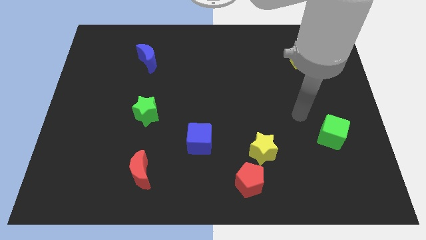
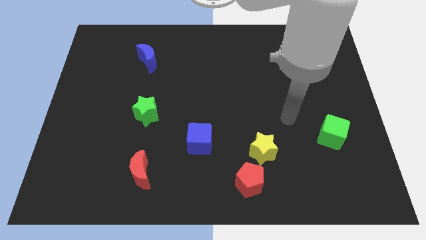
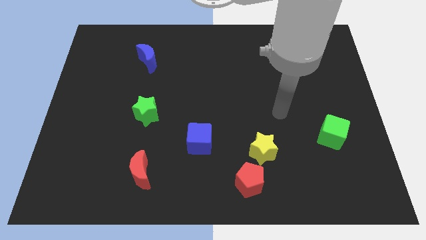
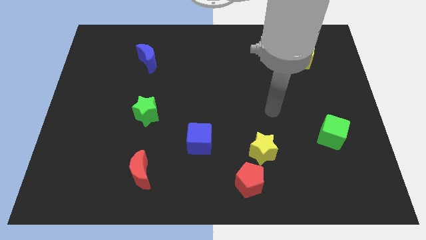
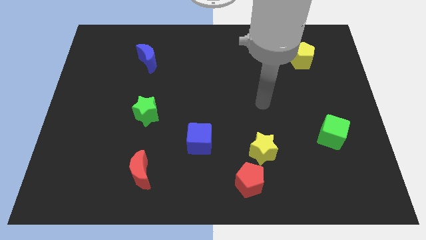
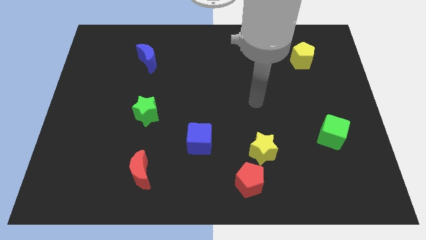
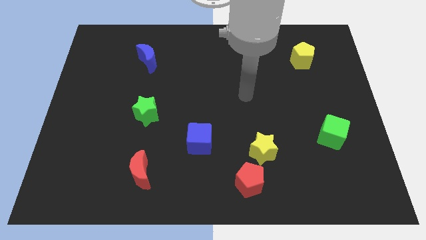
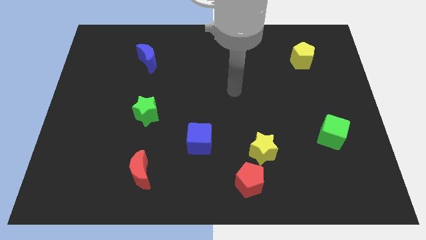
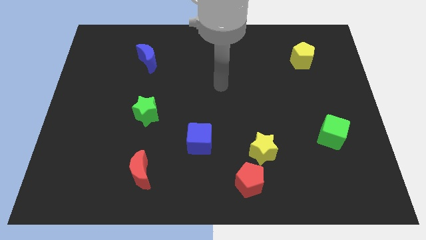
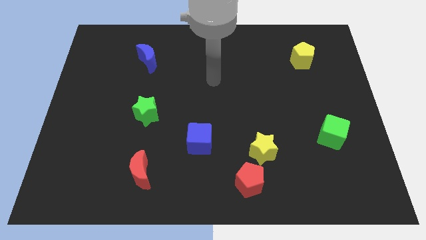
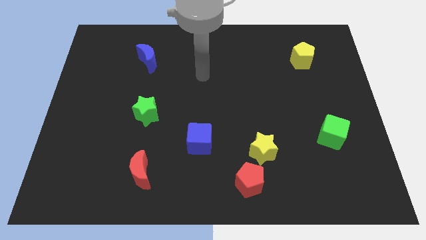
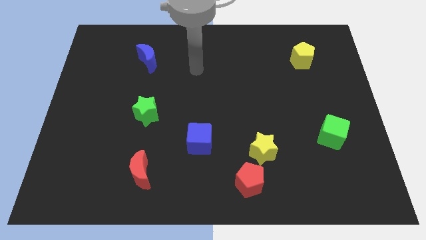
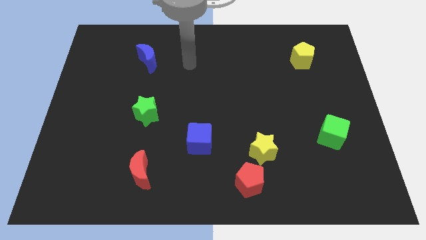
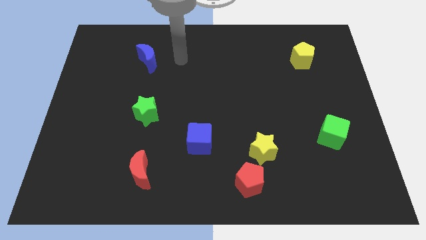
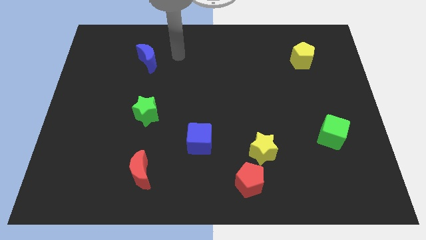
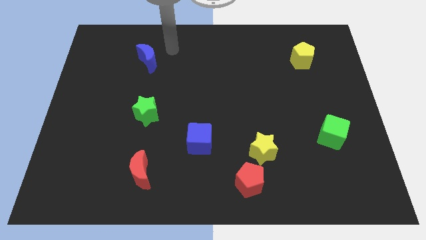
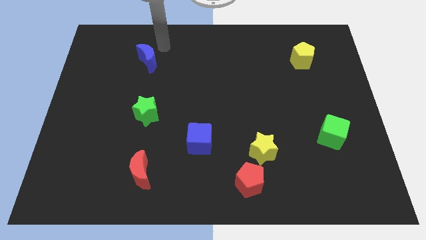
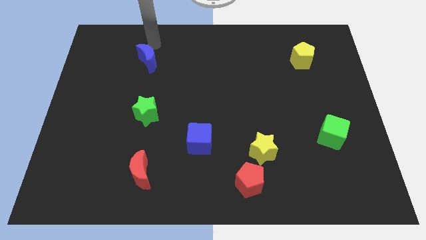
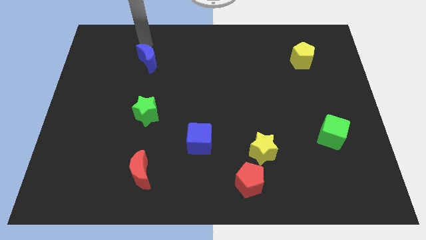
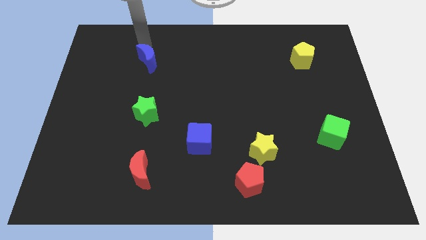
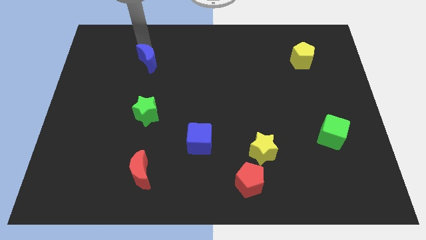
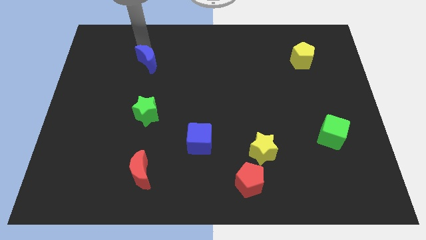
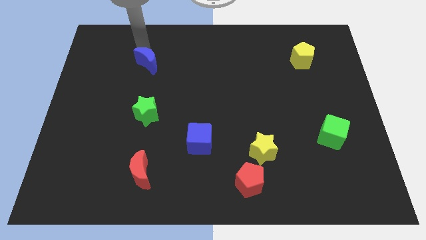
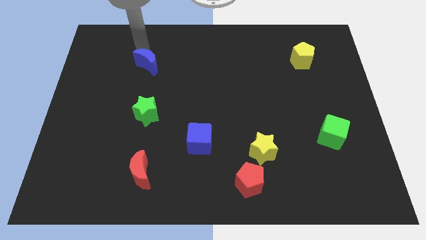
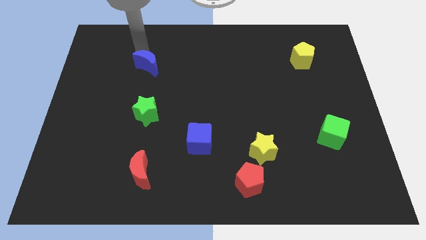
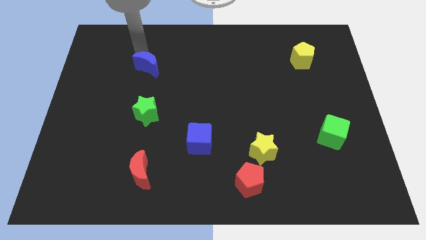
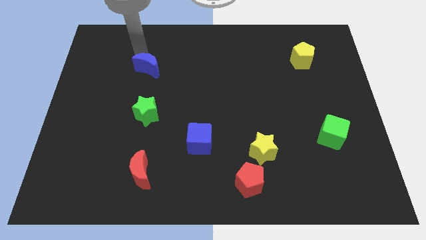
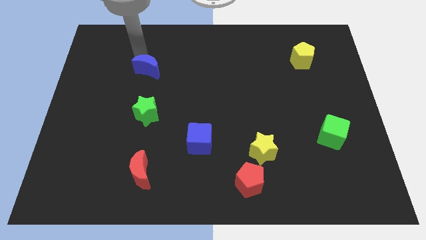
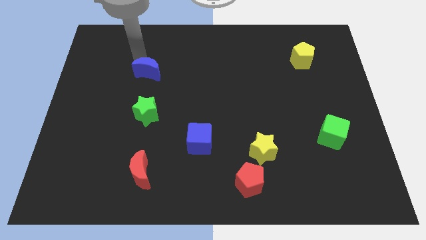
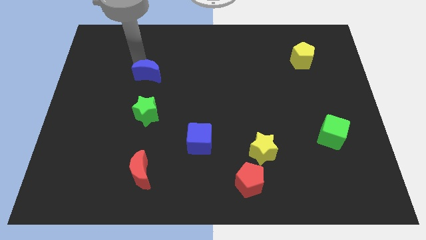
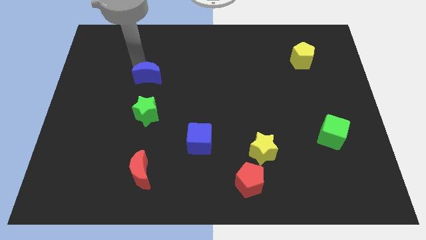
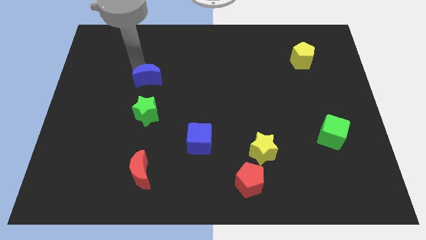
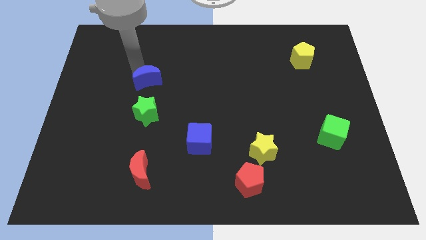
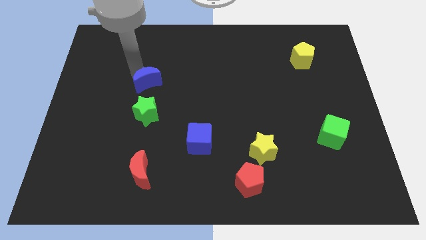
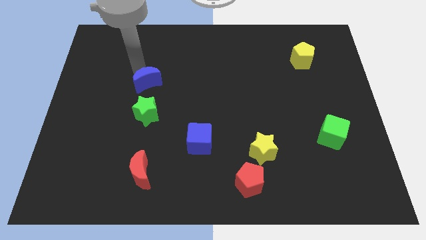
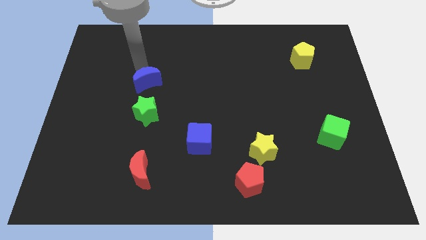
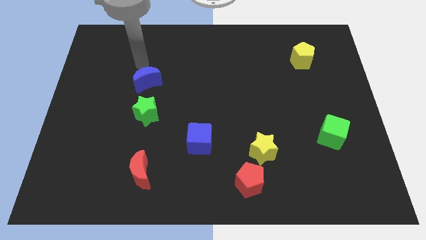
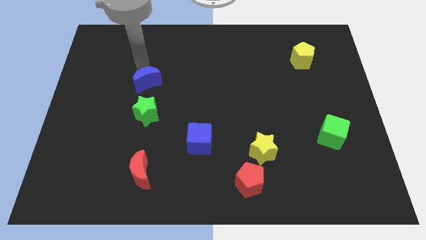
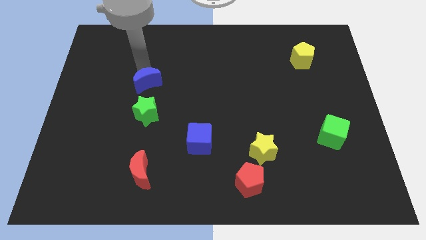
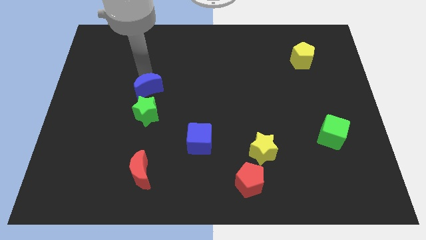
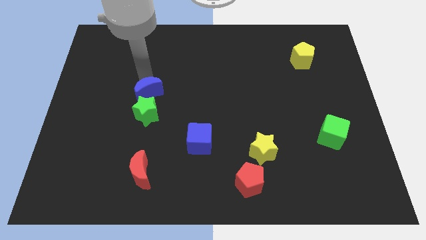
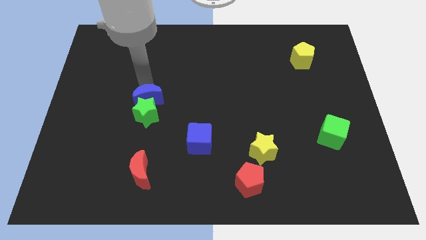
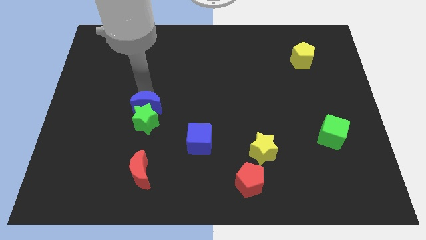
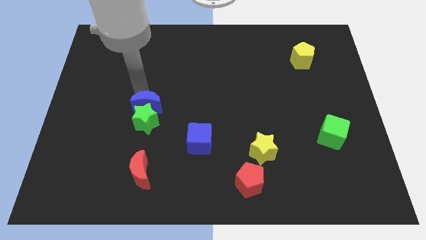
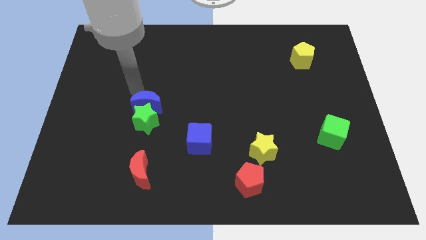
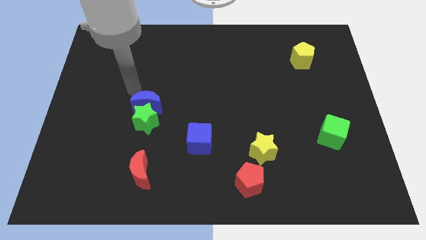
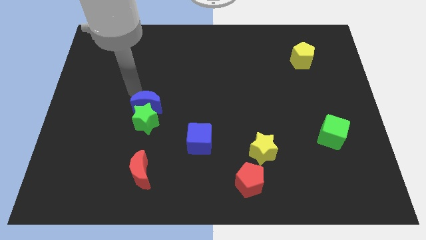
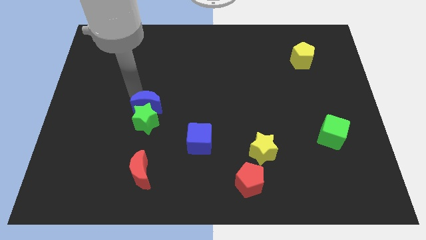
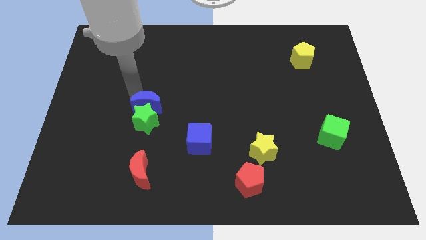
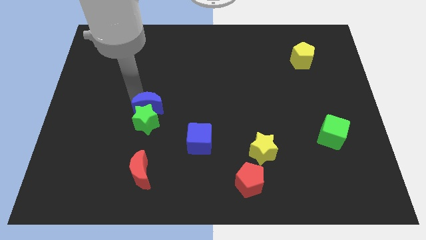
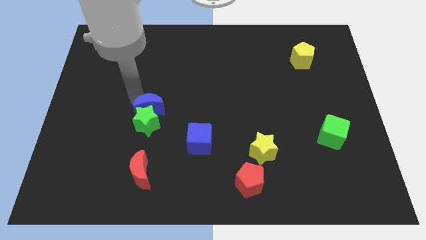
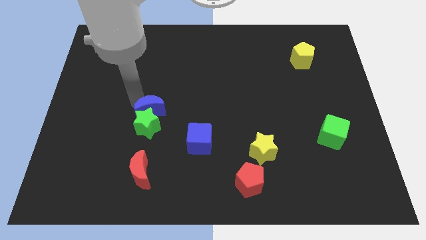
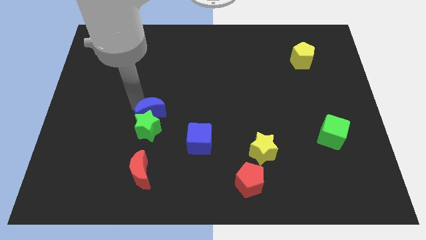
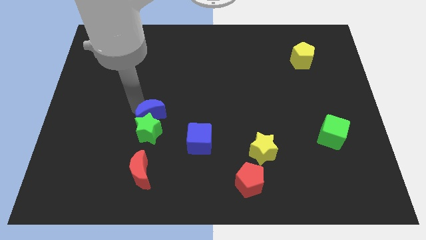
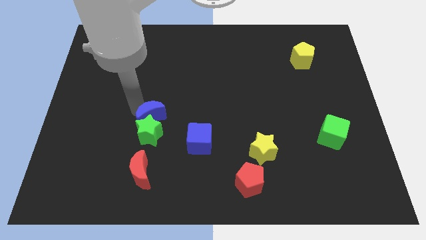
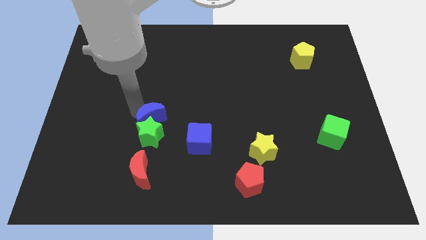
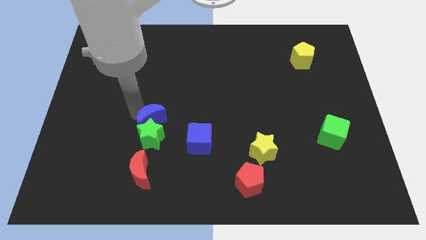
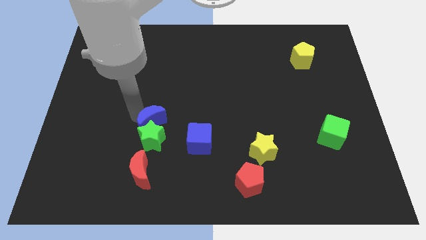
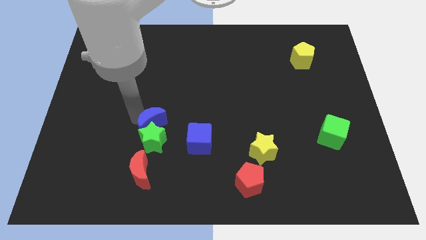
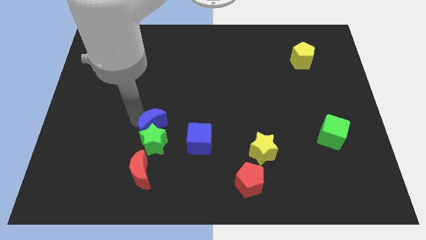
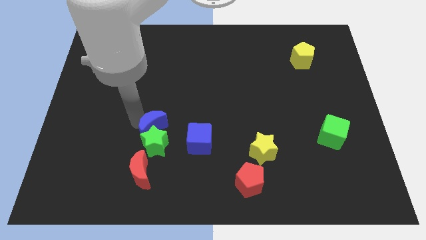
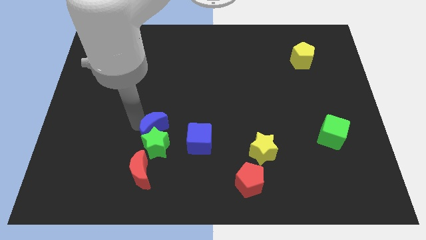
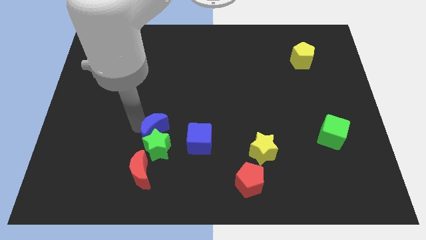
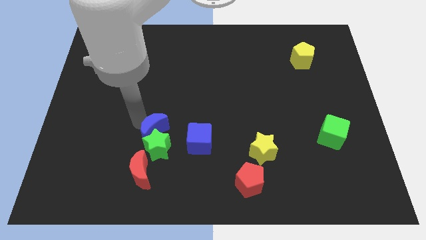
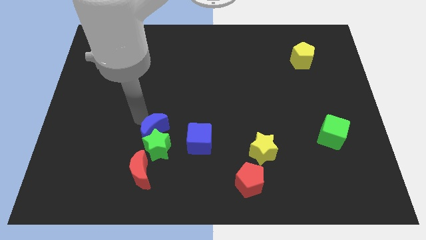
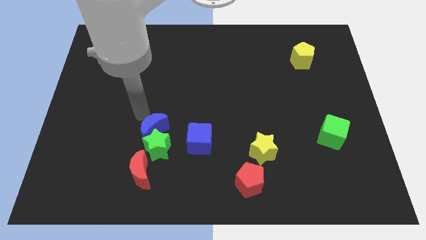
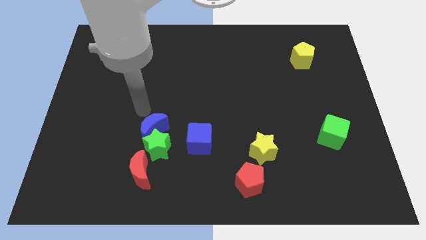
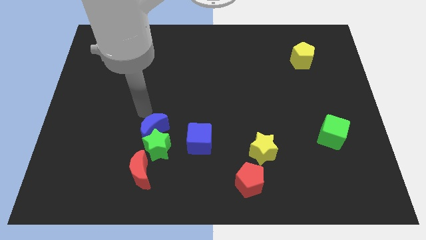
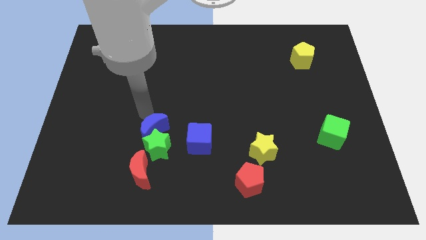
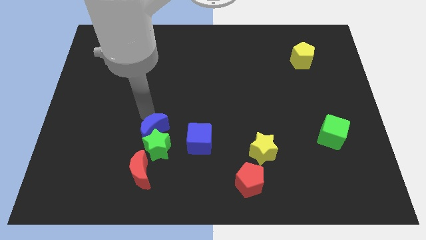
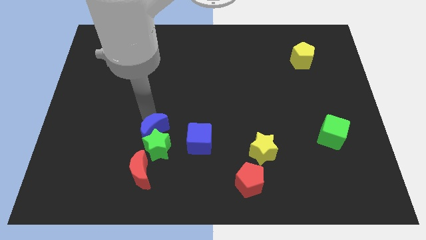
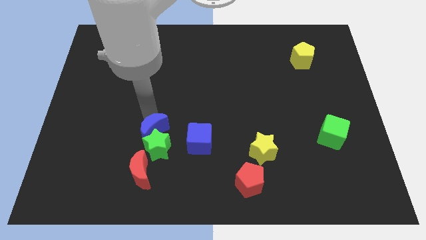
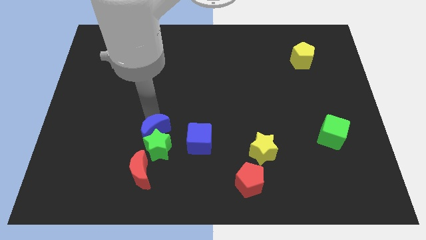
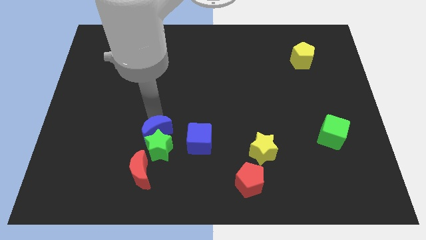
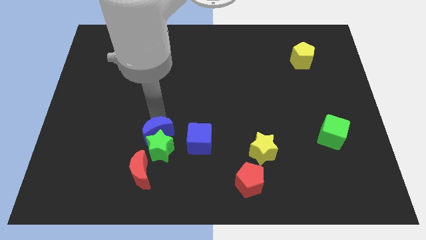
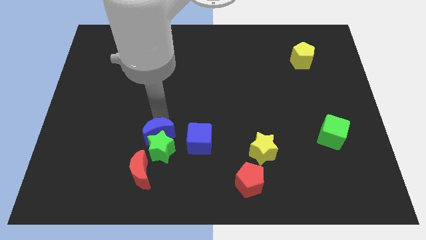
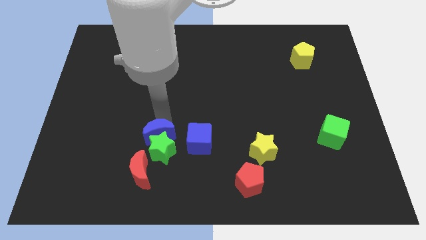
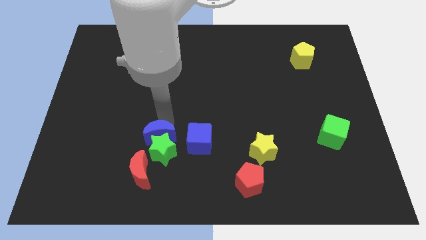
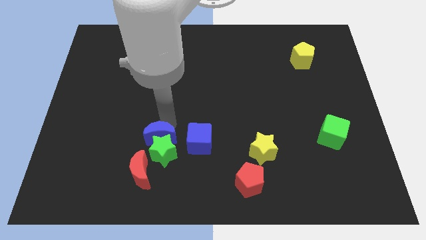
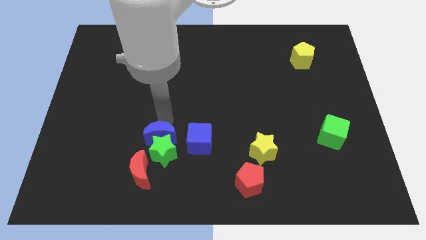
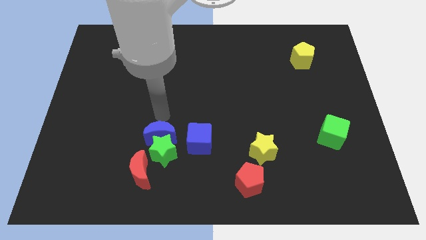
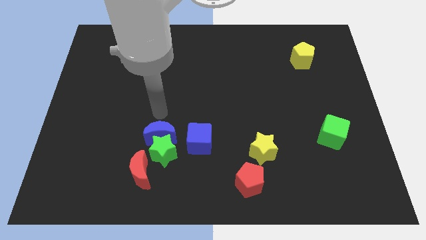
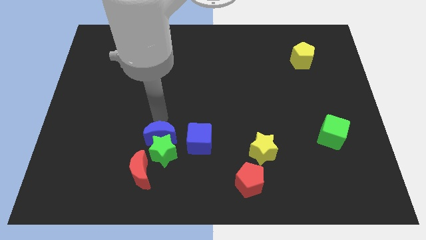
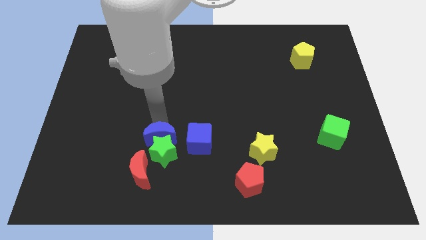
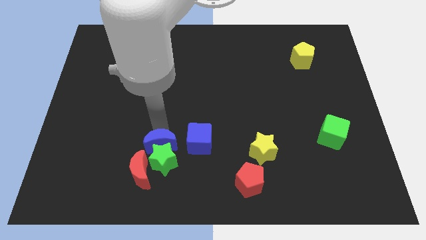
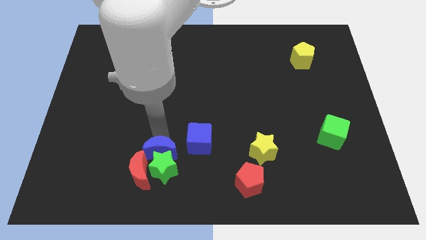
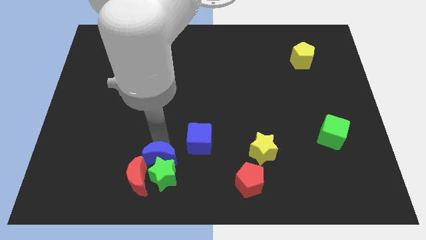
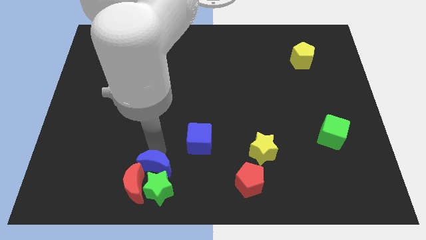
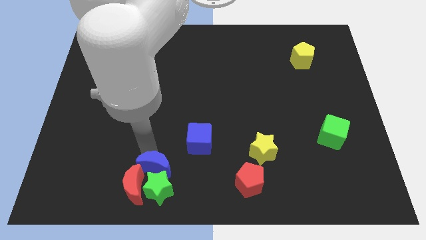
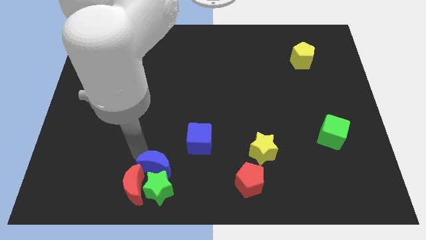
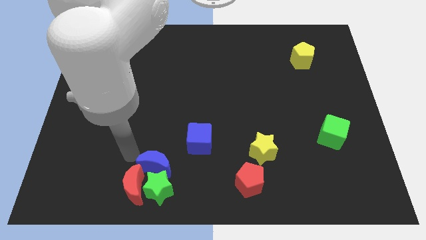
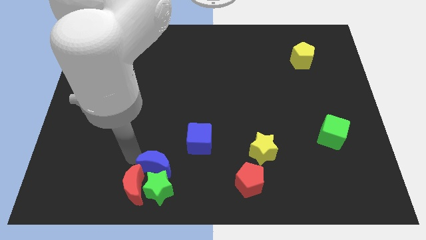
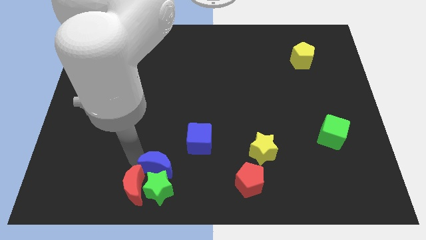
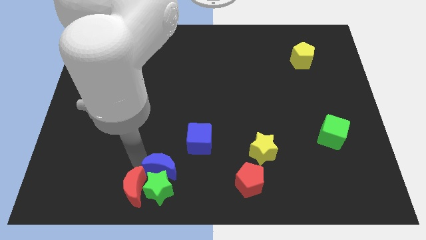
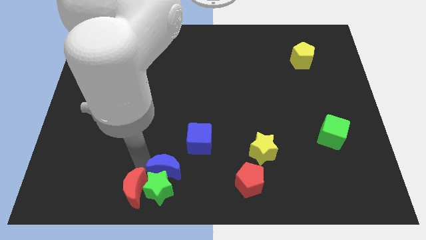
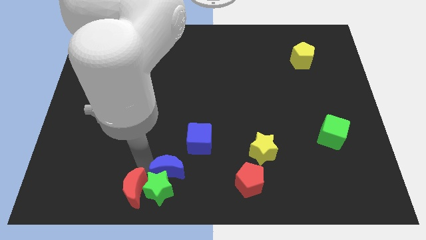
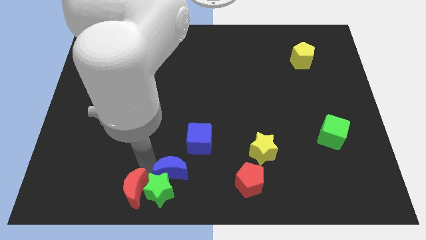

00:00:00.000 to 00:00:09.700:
move the blue moon left of the red pentagon
